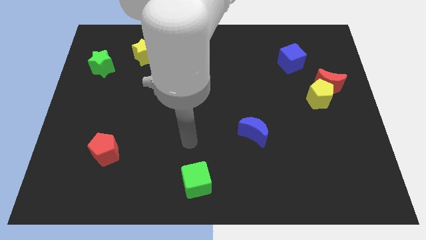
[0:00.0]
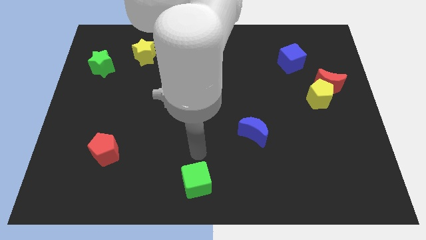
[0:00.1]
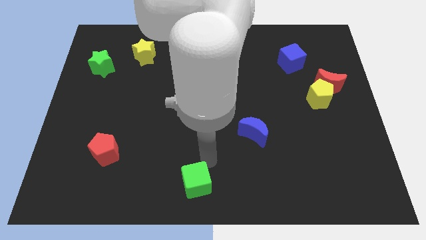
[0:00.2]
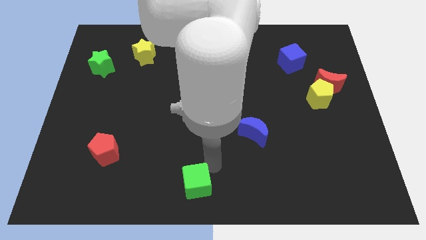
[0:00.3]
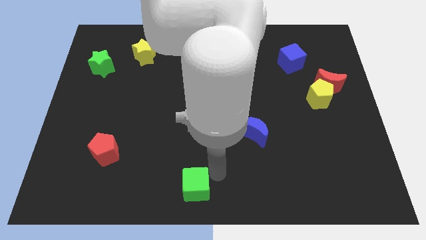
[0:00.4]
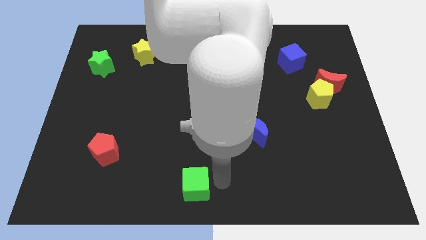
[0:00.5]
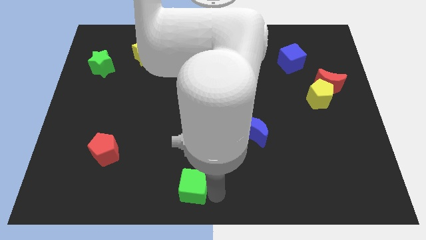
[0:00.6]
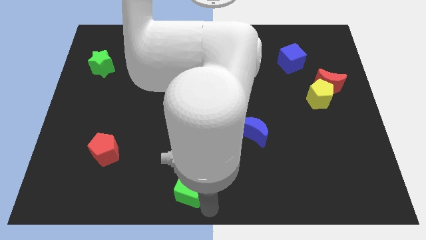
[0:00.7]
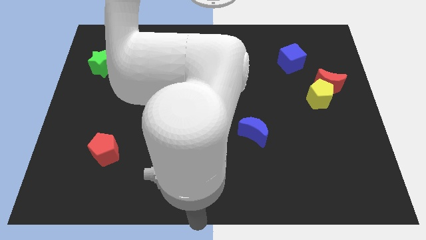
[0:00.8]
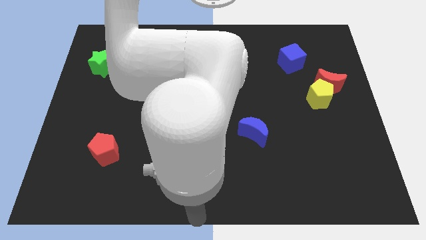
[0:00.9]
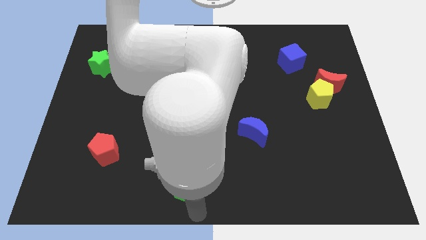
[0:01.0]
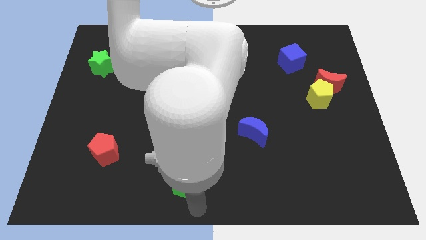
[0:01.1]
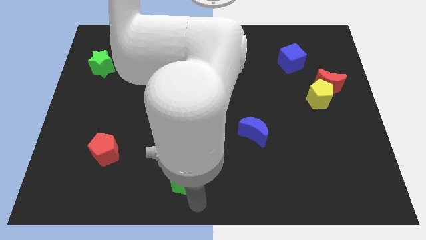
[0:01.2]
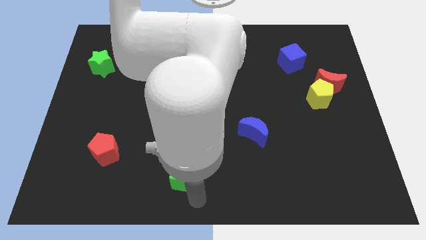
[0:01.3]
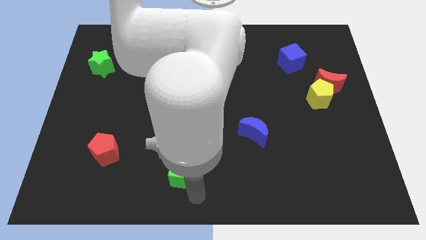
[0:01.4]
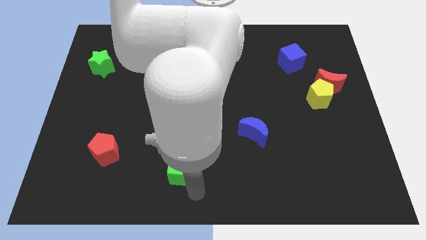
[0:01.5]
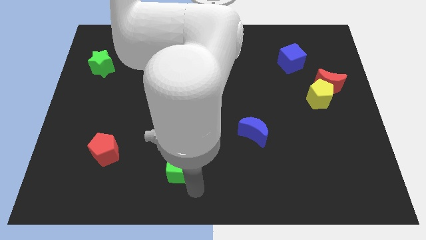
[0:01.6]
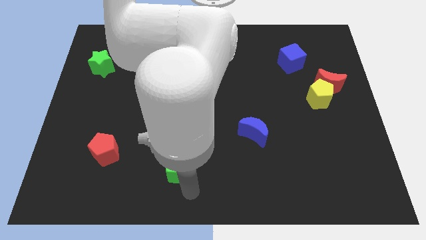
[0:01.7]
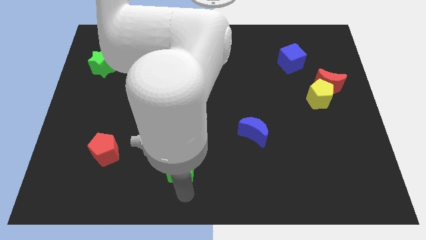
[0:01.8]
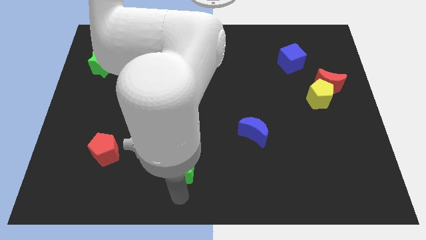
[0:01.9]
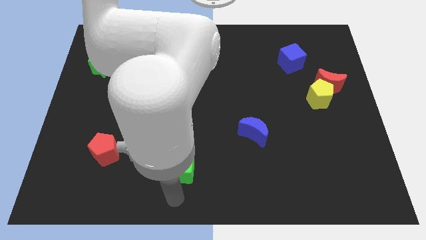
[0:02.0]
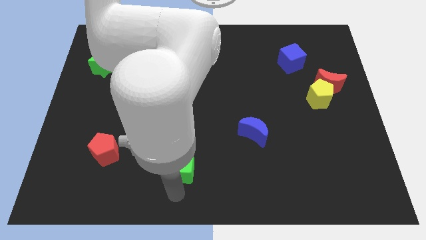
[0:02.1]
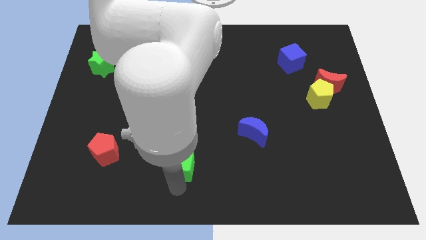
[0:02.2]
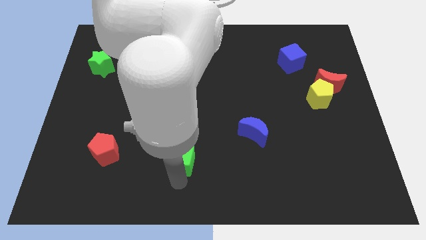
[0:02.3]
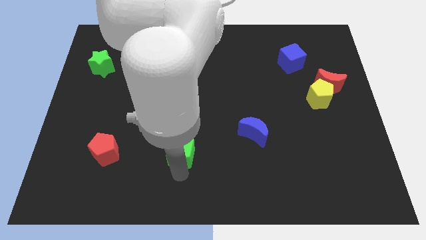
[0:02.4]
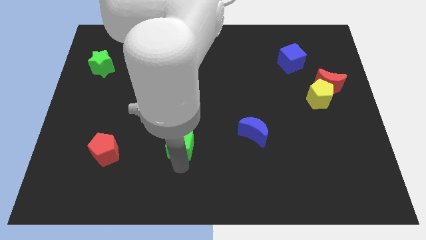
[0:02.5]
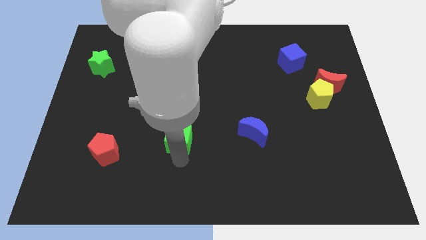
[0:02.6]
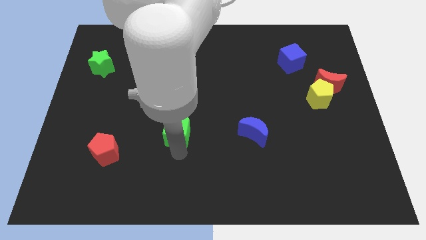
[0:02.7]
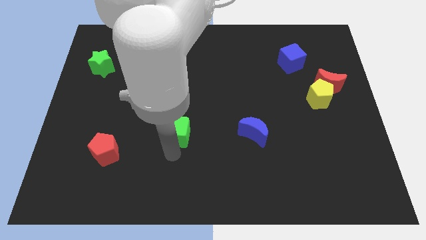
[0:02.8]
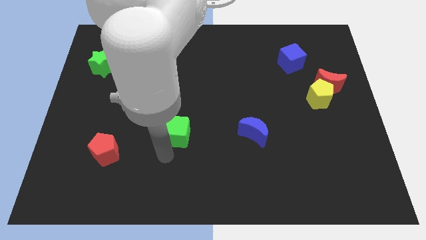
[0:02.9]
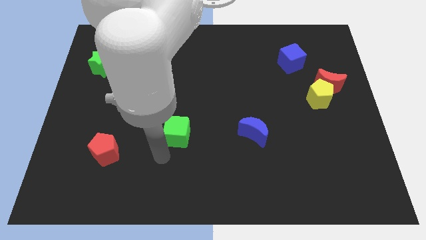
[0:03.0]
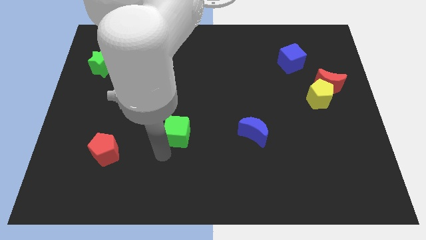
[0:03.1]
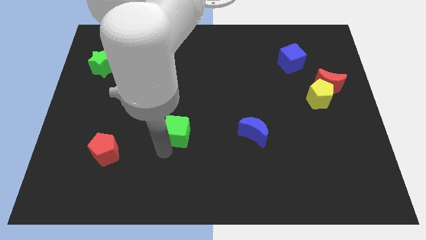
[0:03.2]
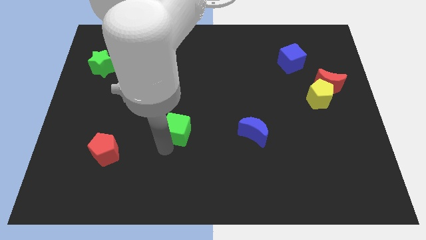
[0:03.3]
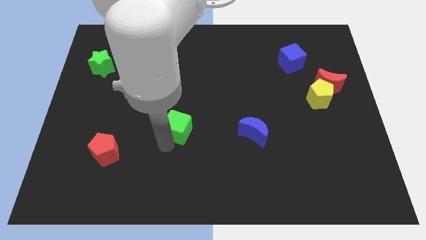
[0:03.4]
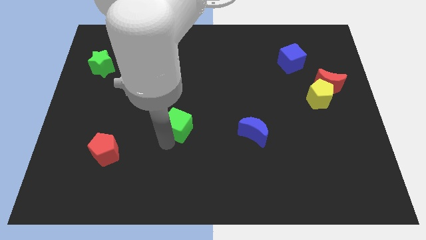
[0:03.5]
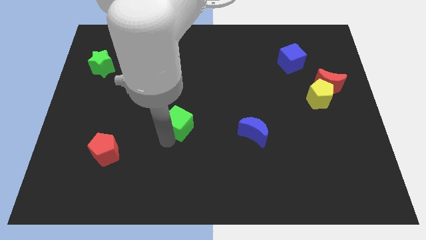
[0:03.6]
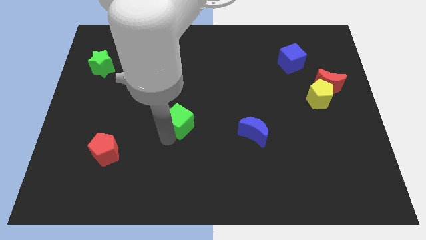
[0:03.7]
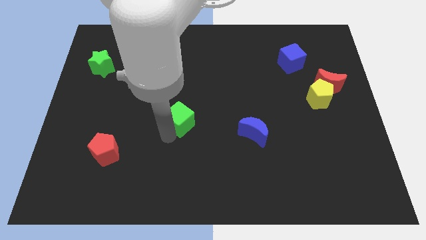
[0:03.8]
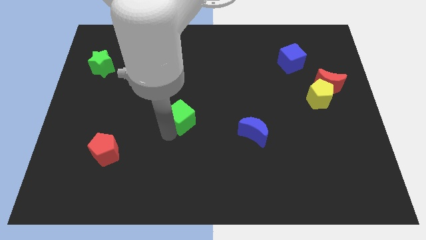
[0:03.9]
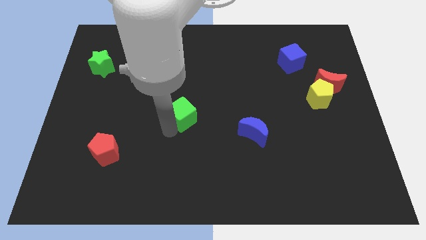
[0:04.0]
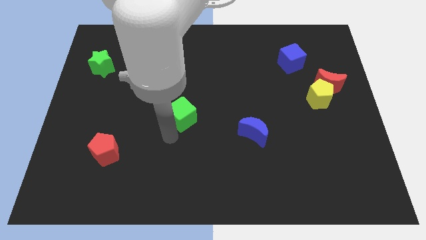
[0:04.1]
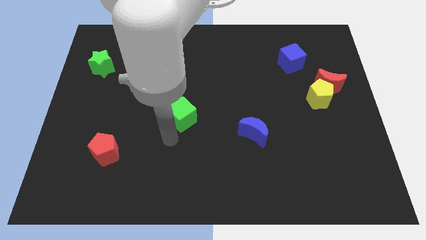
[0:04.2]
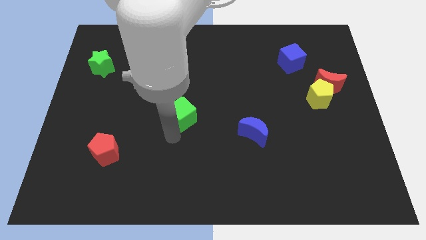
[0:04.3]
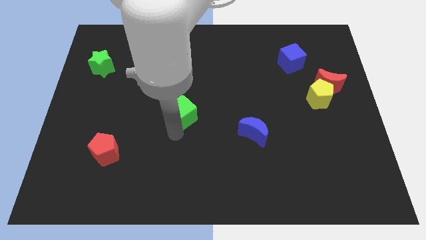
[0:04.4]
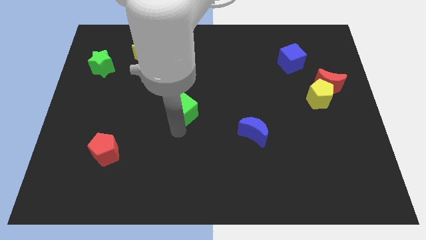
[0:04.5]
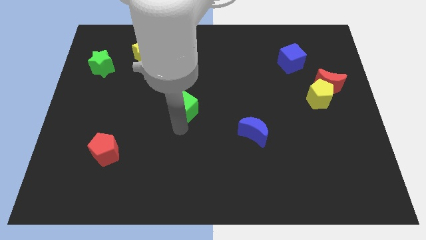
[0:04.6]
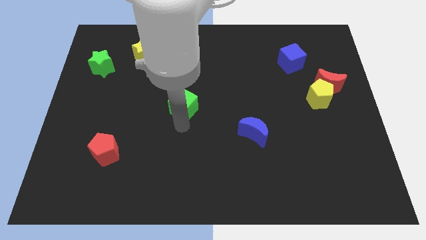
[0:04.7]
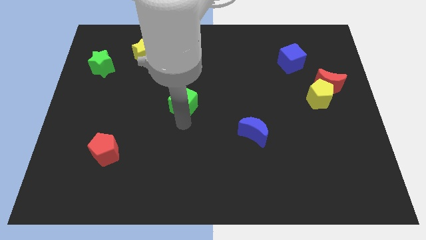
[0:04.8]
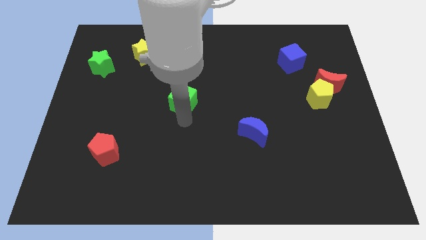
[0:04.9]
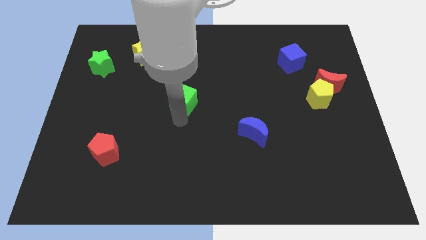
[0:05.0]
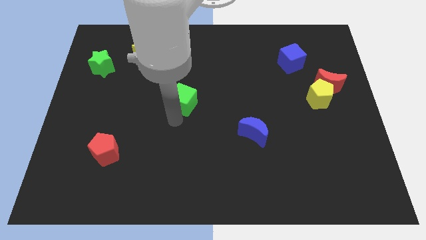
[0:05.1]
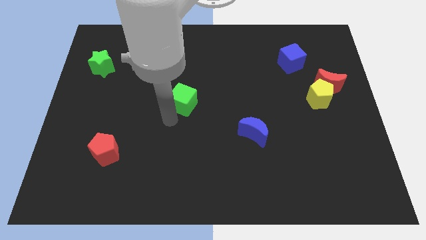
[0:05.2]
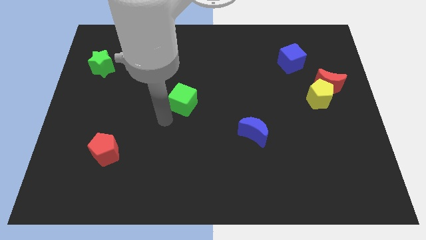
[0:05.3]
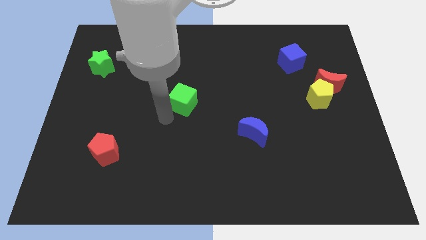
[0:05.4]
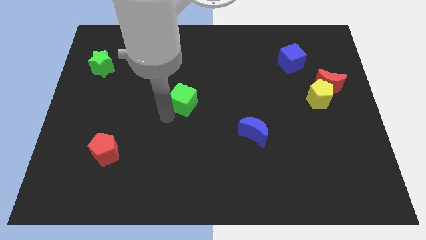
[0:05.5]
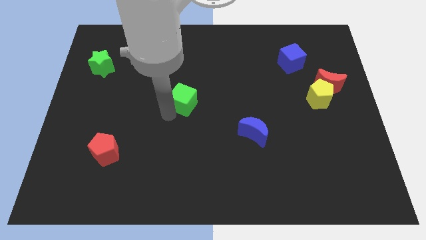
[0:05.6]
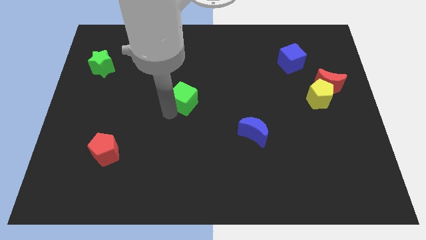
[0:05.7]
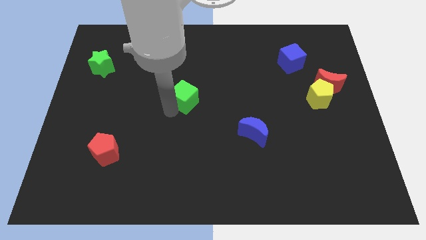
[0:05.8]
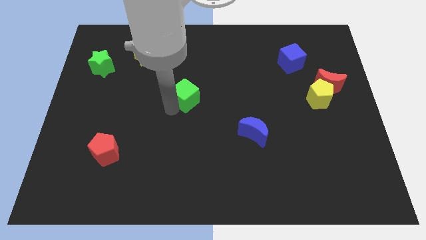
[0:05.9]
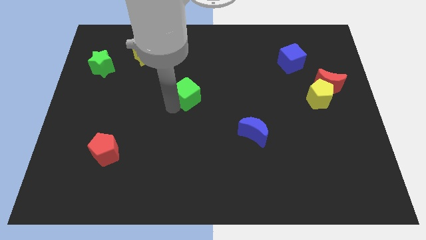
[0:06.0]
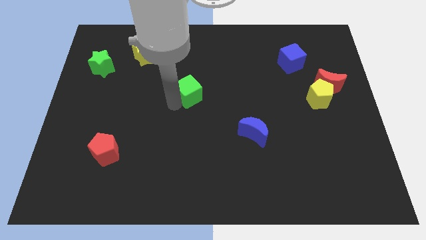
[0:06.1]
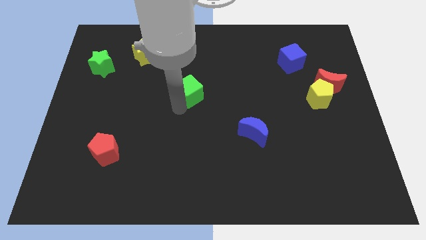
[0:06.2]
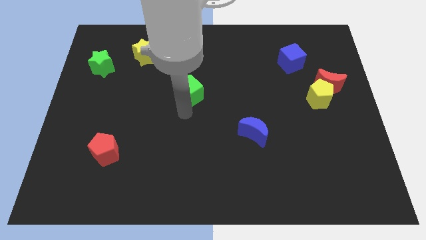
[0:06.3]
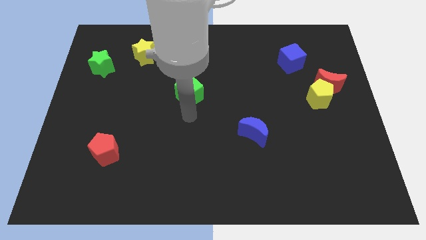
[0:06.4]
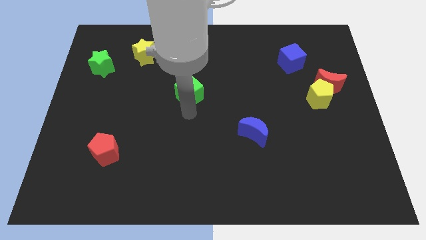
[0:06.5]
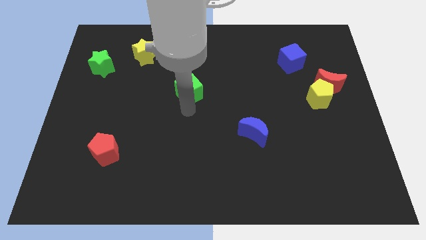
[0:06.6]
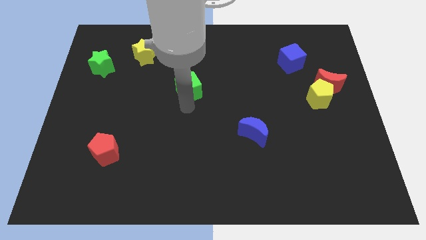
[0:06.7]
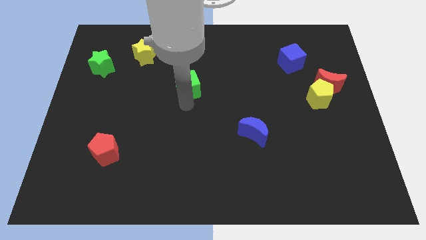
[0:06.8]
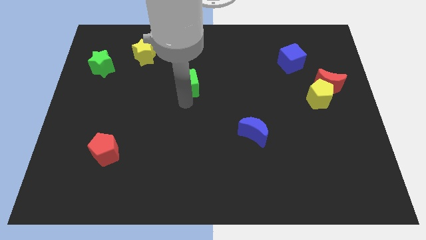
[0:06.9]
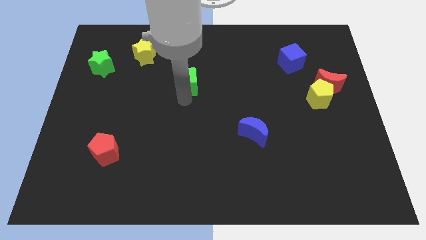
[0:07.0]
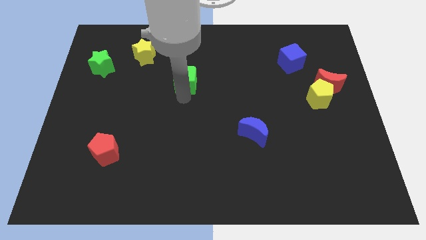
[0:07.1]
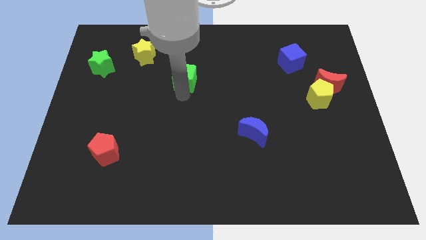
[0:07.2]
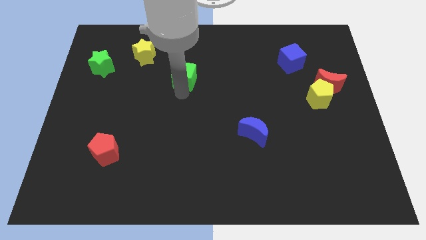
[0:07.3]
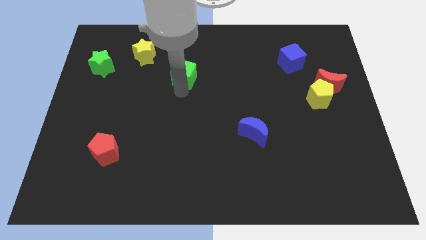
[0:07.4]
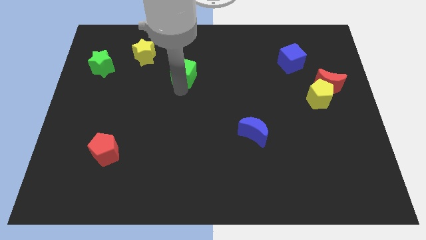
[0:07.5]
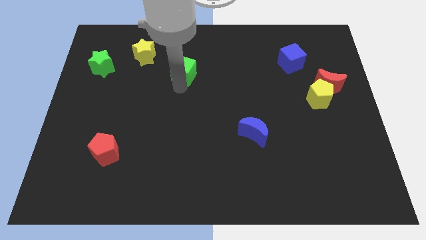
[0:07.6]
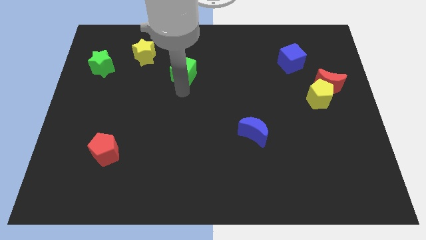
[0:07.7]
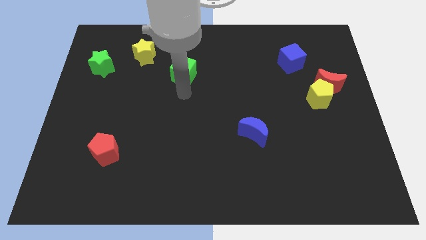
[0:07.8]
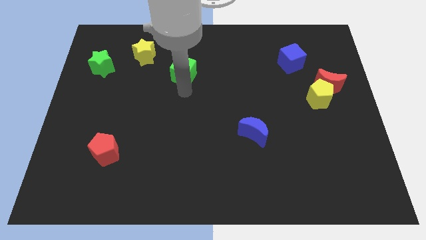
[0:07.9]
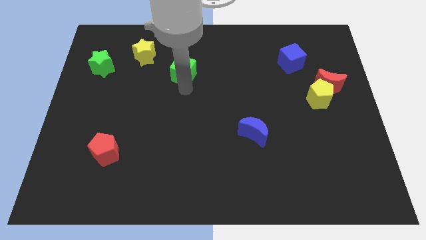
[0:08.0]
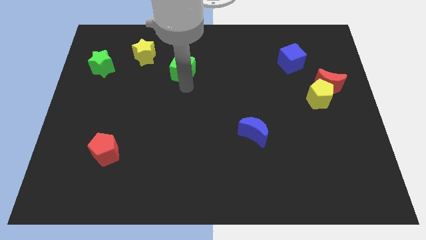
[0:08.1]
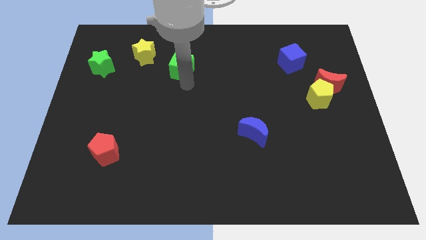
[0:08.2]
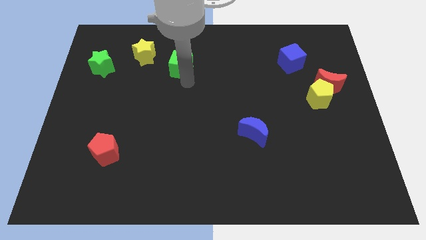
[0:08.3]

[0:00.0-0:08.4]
push the green cube to the right side of the yellow star
